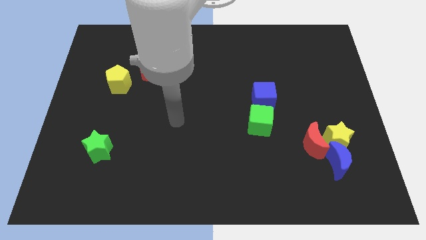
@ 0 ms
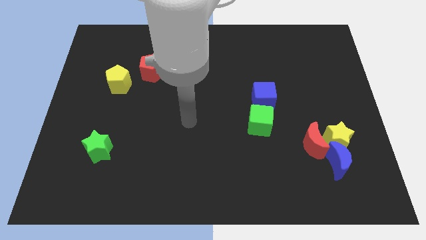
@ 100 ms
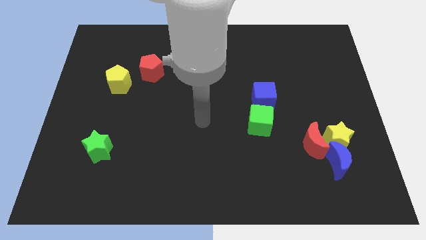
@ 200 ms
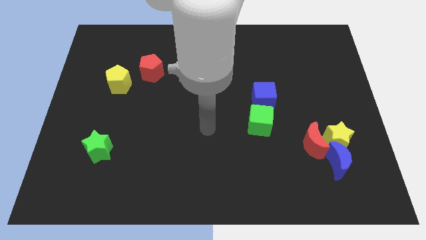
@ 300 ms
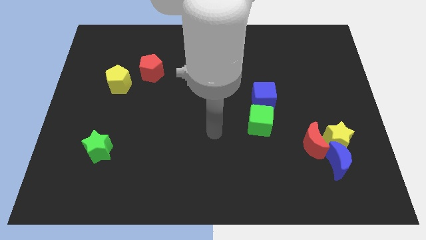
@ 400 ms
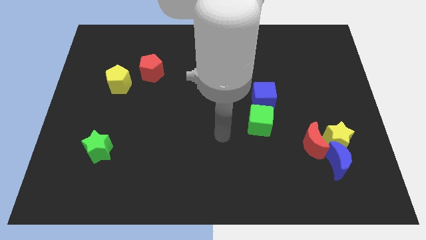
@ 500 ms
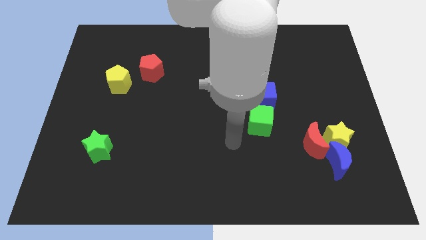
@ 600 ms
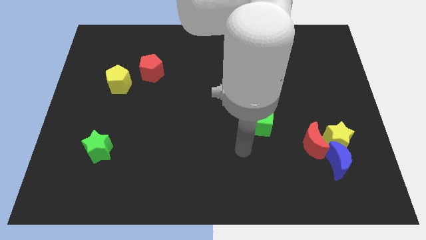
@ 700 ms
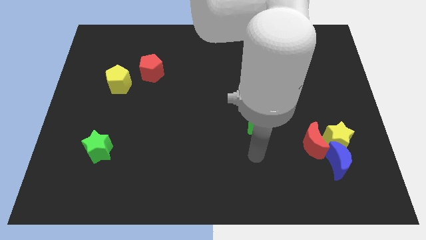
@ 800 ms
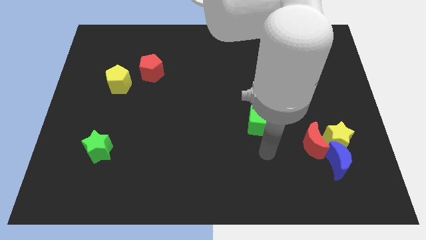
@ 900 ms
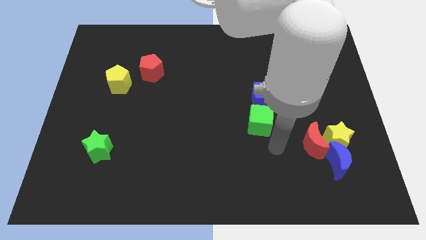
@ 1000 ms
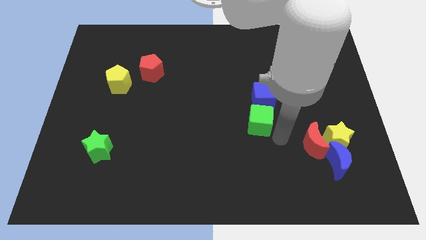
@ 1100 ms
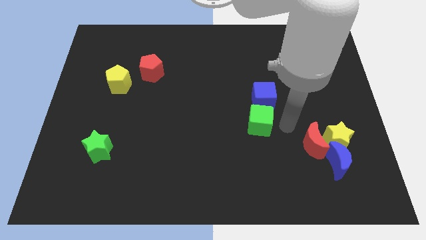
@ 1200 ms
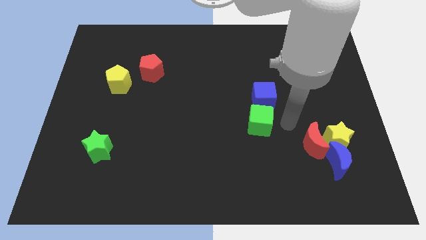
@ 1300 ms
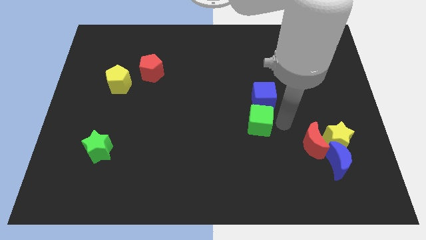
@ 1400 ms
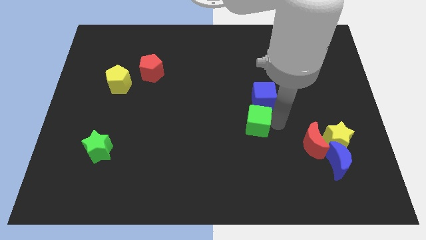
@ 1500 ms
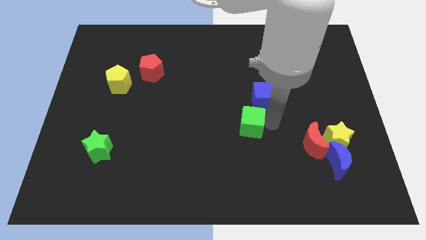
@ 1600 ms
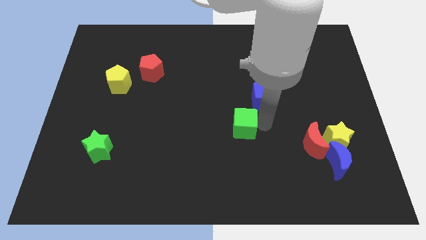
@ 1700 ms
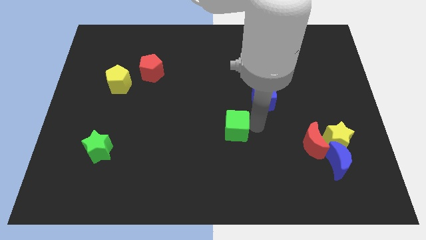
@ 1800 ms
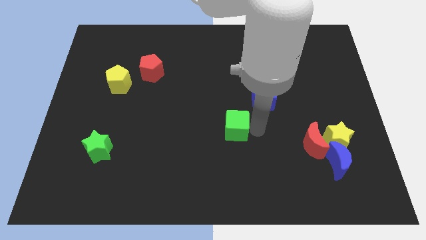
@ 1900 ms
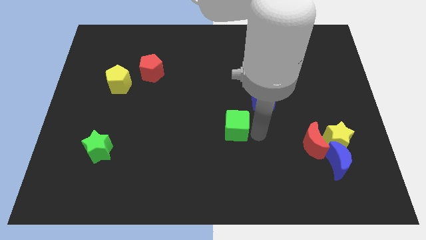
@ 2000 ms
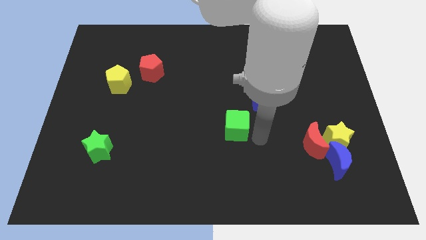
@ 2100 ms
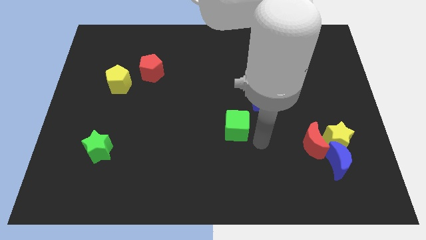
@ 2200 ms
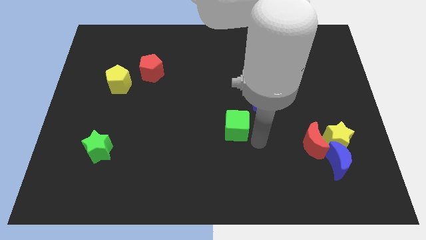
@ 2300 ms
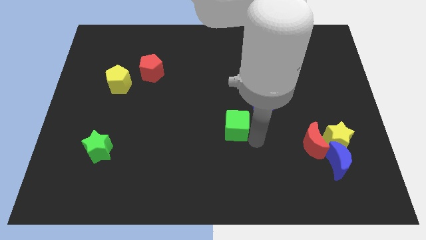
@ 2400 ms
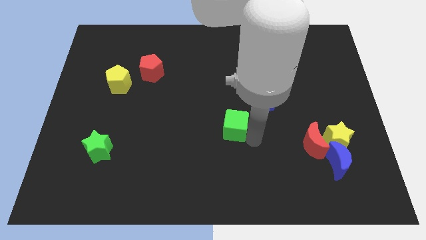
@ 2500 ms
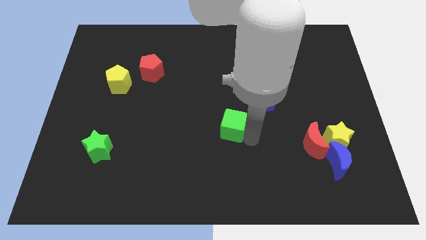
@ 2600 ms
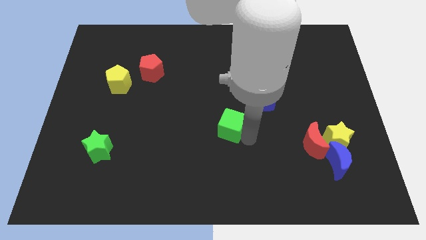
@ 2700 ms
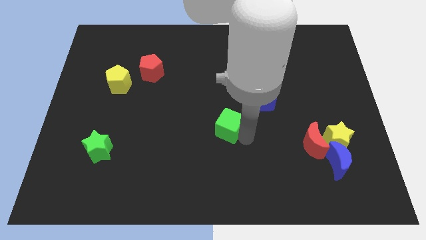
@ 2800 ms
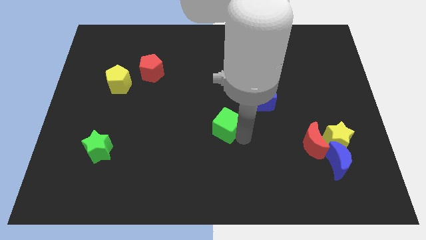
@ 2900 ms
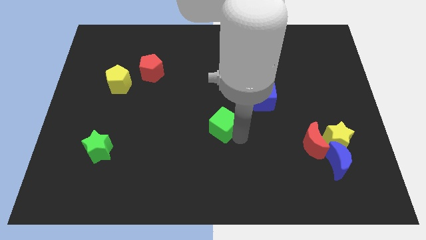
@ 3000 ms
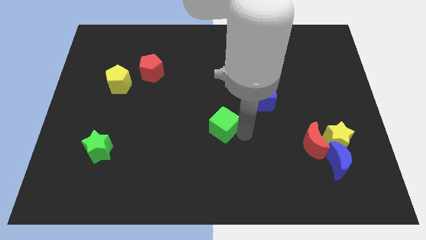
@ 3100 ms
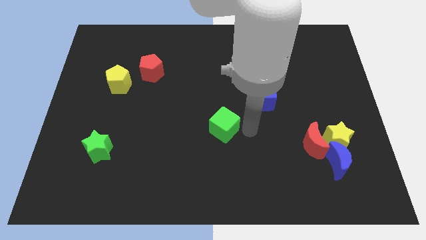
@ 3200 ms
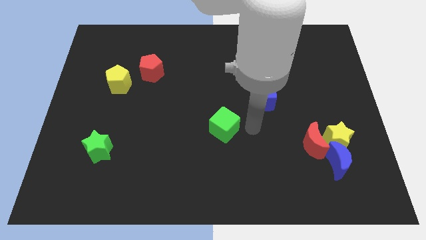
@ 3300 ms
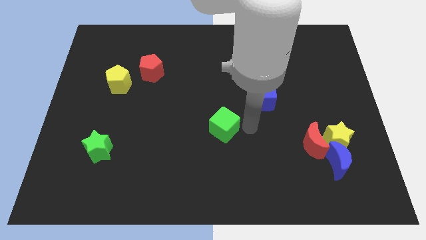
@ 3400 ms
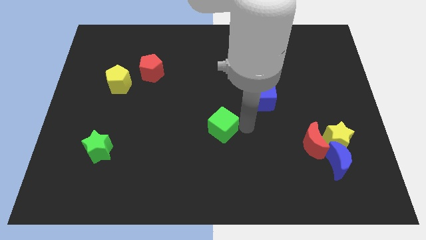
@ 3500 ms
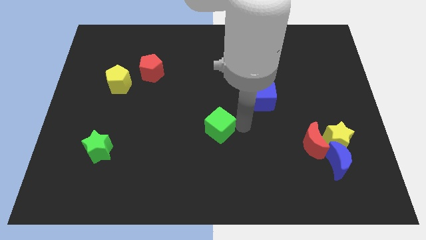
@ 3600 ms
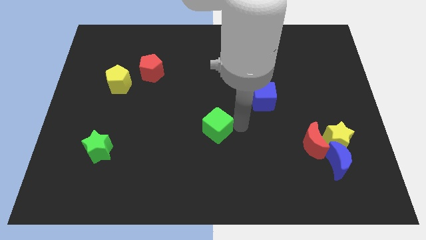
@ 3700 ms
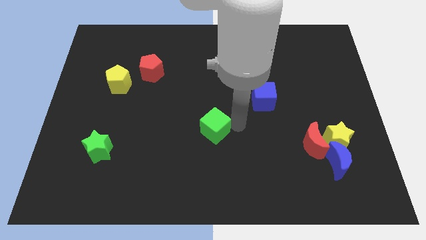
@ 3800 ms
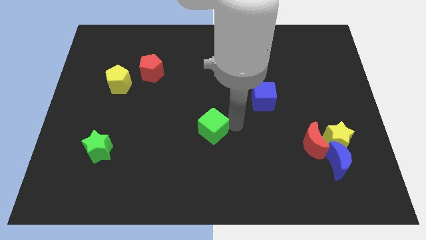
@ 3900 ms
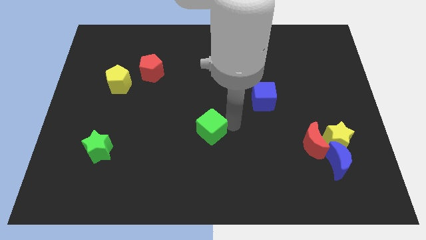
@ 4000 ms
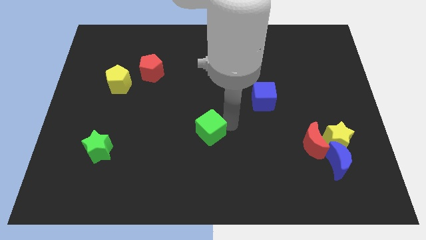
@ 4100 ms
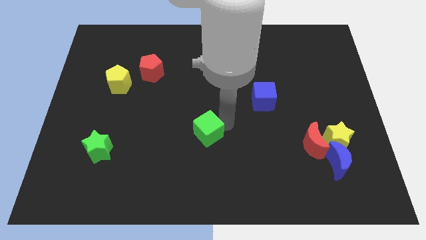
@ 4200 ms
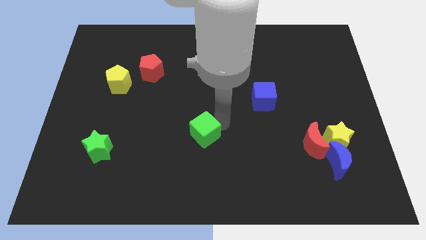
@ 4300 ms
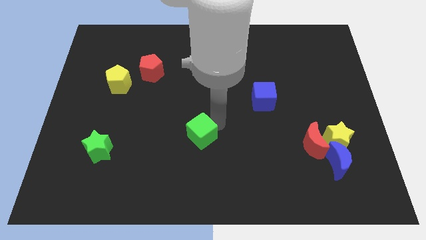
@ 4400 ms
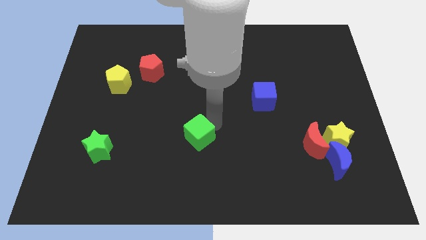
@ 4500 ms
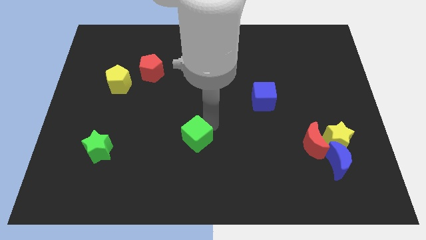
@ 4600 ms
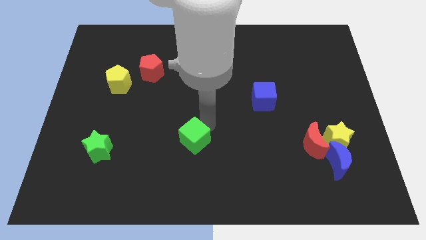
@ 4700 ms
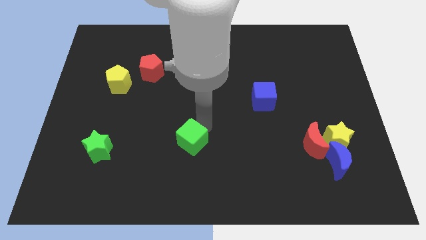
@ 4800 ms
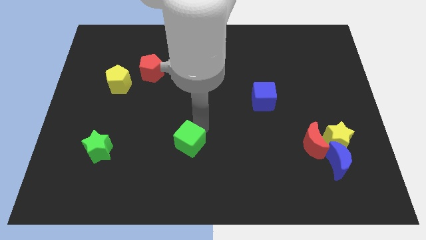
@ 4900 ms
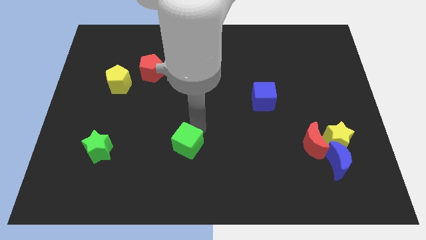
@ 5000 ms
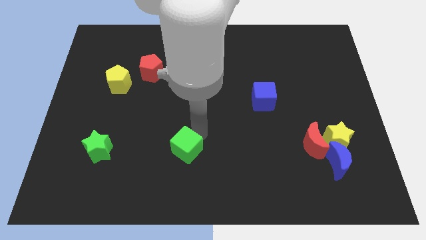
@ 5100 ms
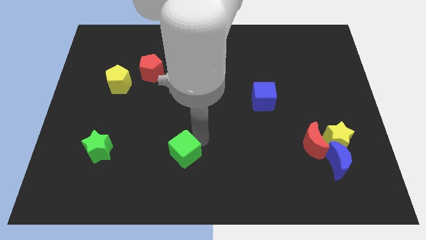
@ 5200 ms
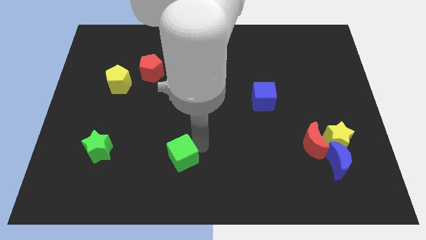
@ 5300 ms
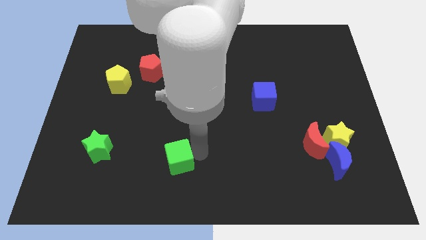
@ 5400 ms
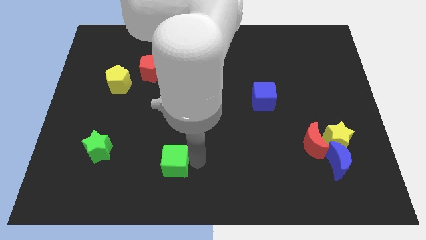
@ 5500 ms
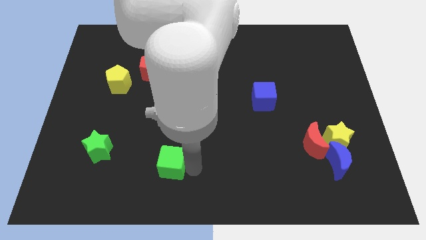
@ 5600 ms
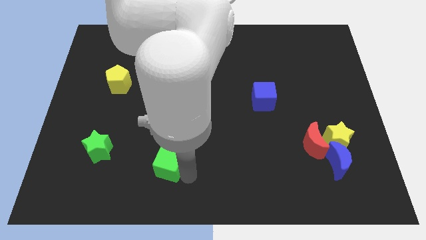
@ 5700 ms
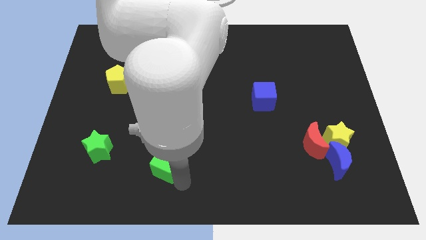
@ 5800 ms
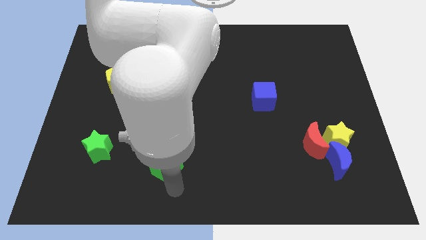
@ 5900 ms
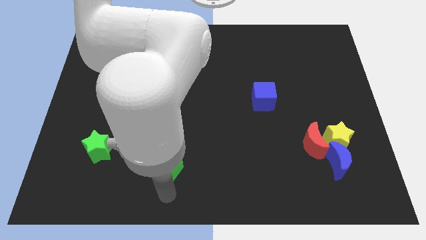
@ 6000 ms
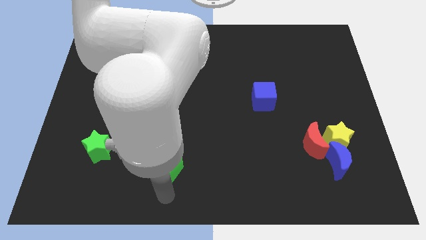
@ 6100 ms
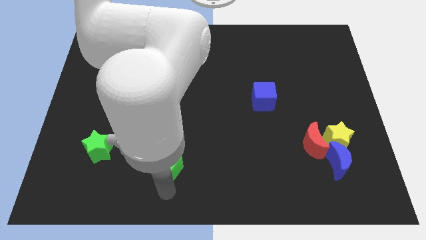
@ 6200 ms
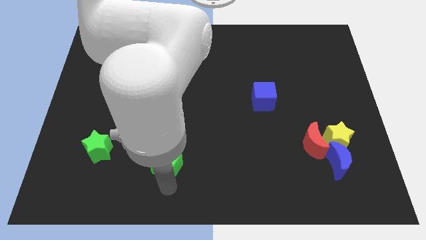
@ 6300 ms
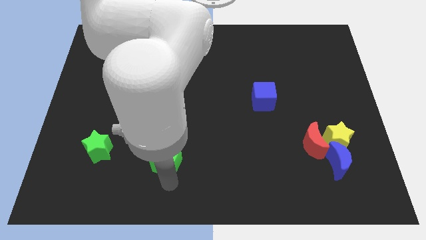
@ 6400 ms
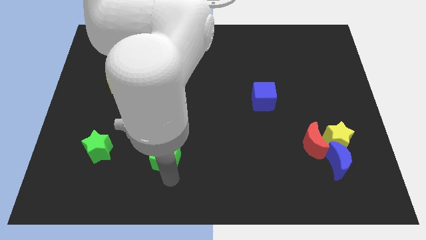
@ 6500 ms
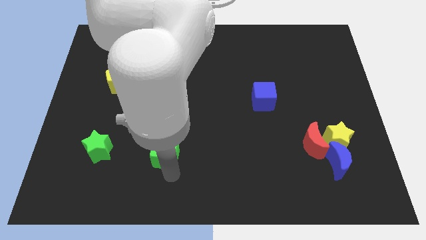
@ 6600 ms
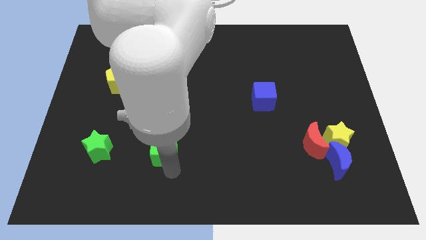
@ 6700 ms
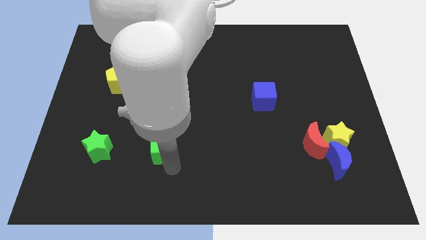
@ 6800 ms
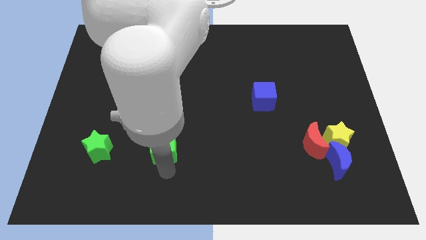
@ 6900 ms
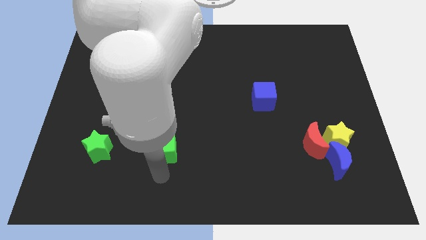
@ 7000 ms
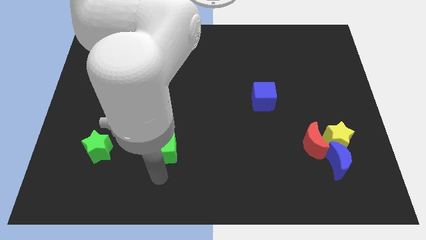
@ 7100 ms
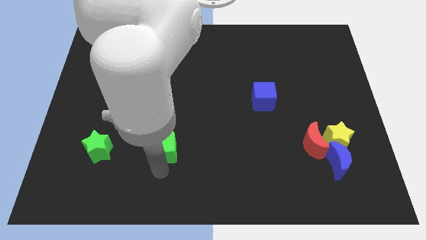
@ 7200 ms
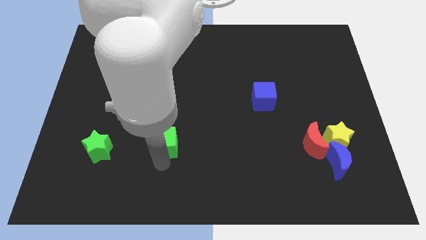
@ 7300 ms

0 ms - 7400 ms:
move the green cube left

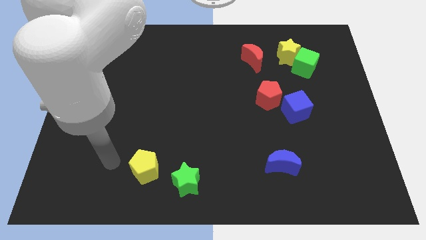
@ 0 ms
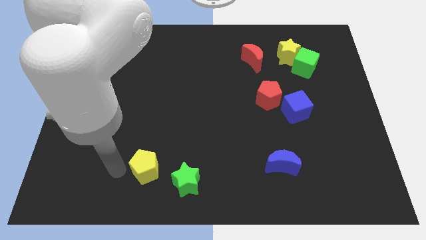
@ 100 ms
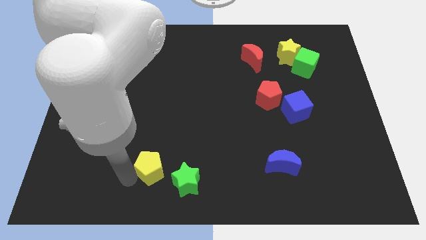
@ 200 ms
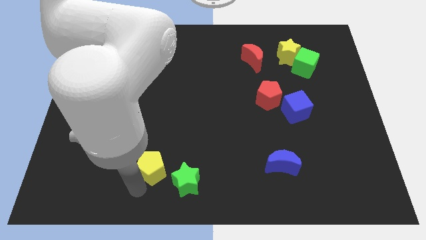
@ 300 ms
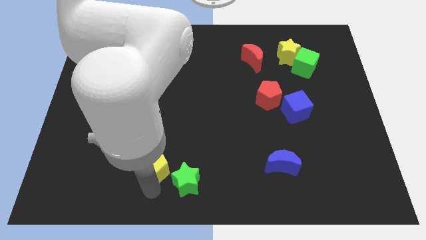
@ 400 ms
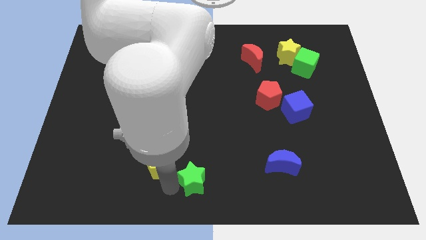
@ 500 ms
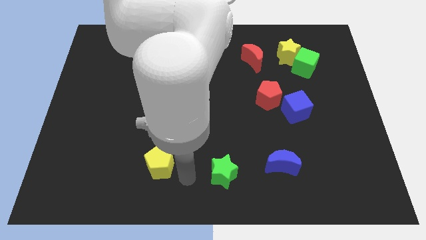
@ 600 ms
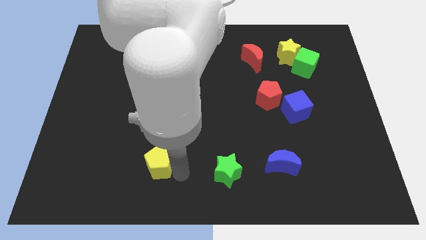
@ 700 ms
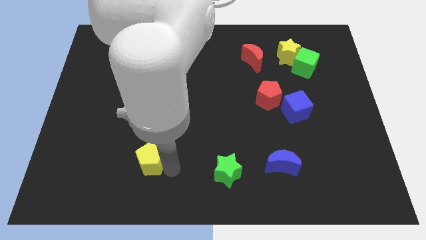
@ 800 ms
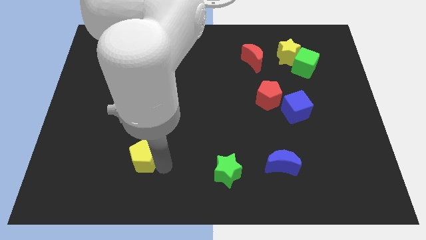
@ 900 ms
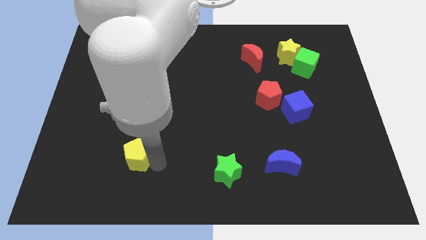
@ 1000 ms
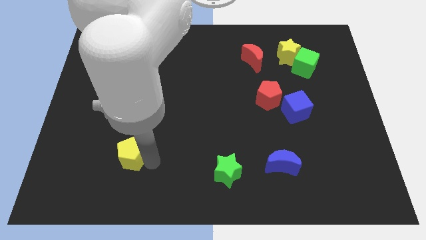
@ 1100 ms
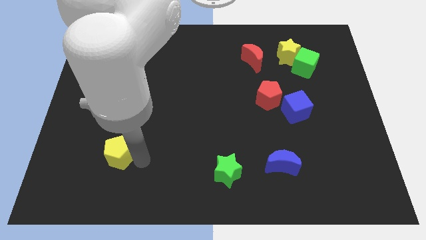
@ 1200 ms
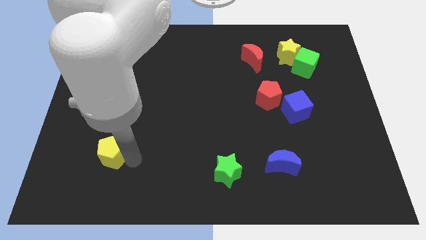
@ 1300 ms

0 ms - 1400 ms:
push the yellow pentagon upwards and then to the left a little
